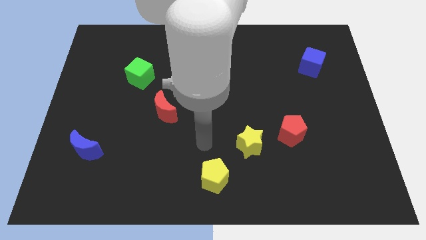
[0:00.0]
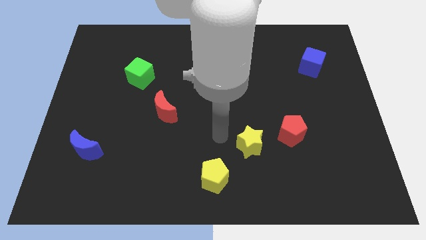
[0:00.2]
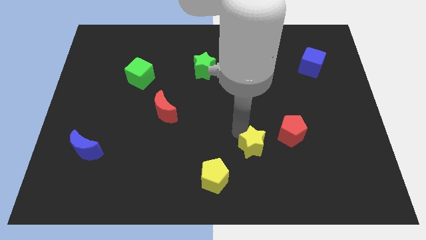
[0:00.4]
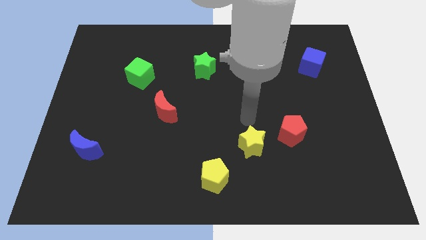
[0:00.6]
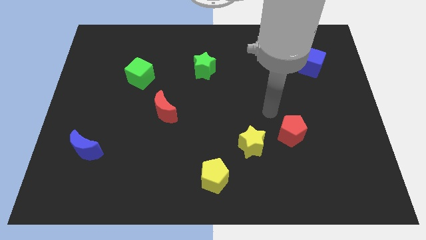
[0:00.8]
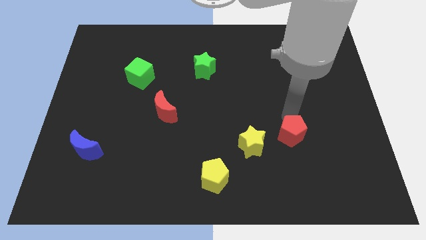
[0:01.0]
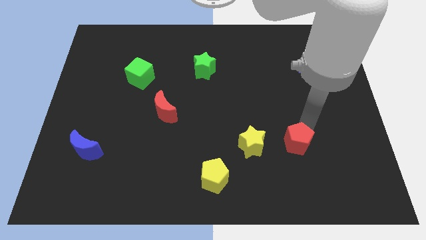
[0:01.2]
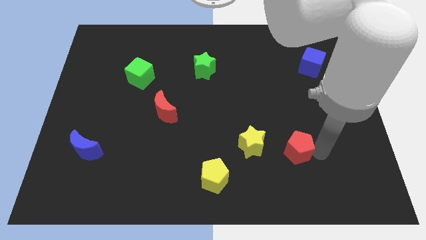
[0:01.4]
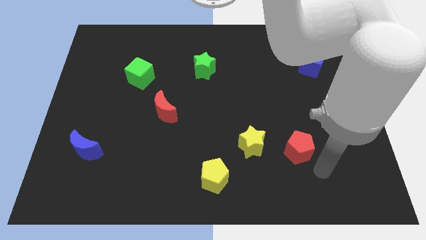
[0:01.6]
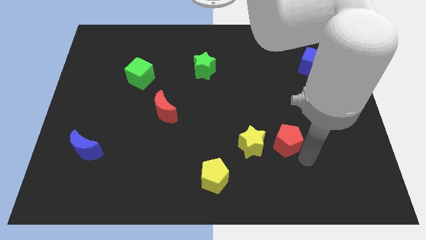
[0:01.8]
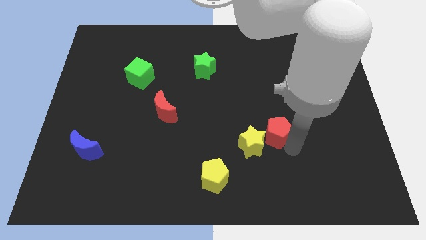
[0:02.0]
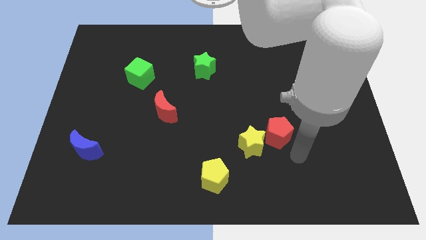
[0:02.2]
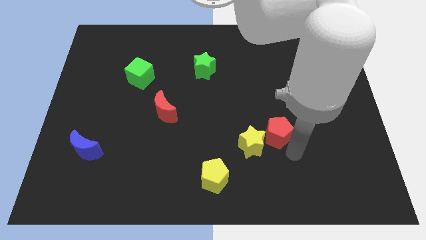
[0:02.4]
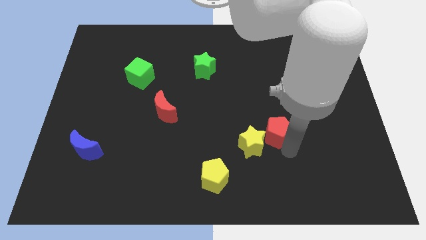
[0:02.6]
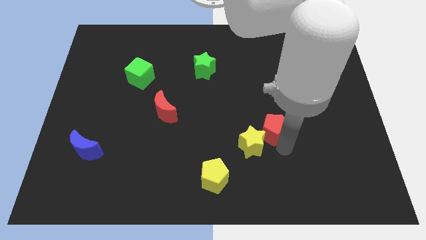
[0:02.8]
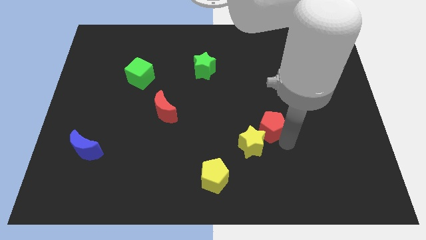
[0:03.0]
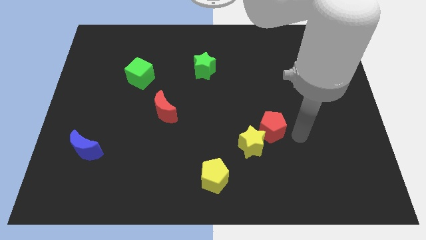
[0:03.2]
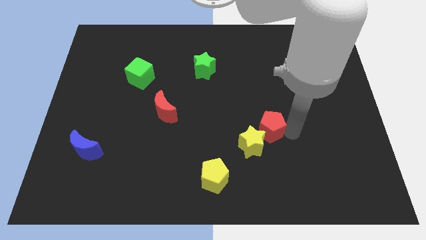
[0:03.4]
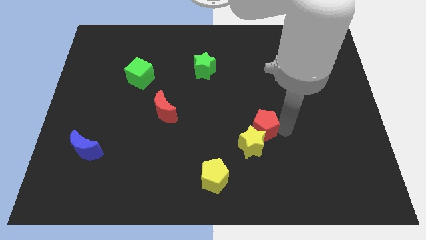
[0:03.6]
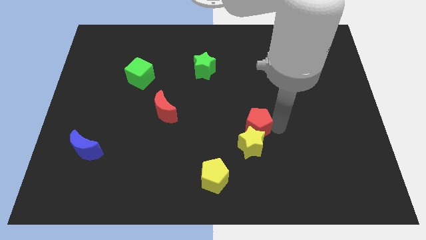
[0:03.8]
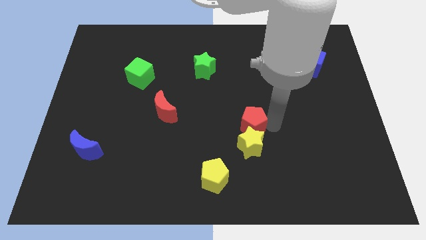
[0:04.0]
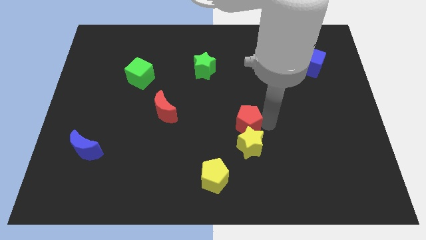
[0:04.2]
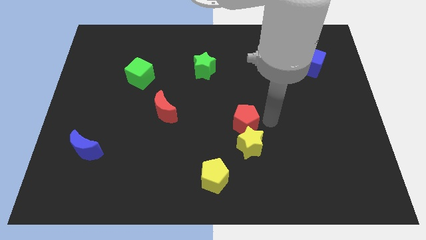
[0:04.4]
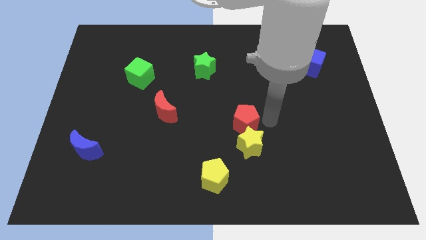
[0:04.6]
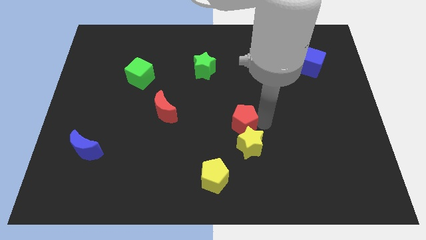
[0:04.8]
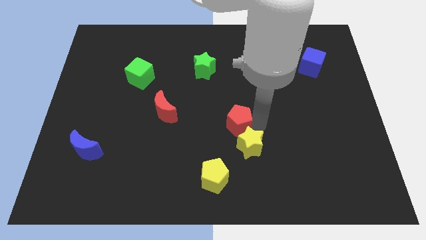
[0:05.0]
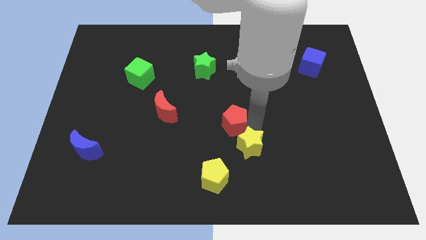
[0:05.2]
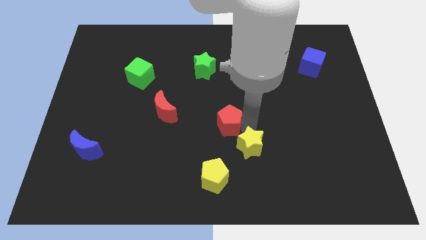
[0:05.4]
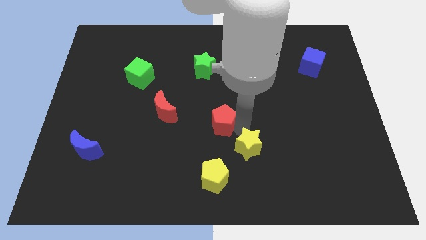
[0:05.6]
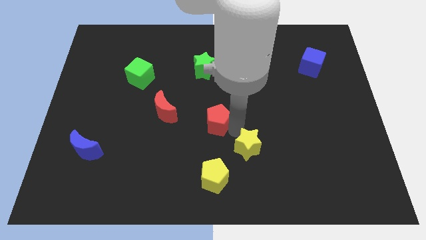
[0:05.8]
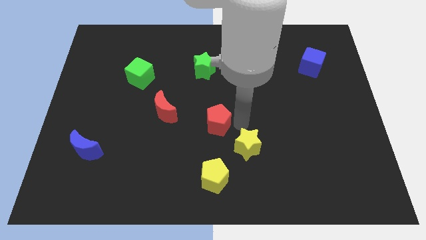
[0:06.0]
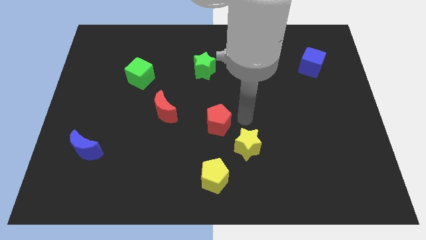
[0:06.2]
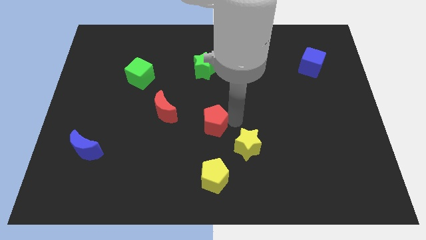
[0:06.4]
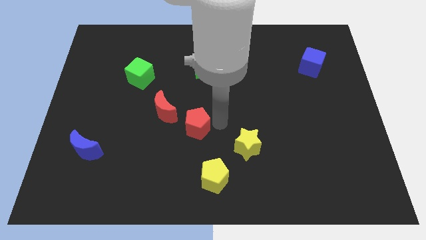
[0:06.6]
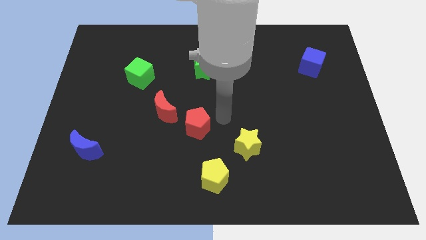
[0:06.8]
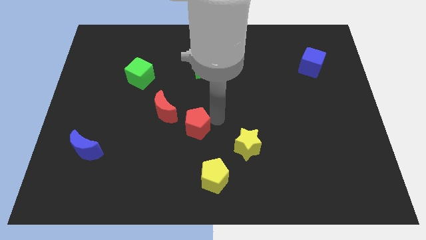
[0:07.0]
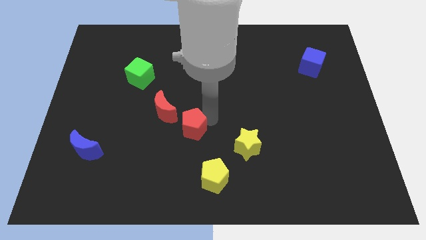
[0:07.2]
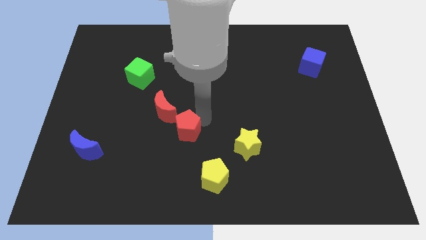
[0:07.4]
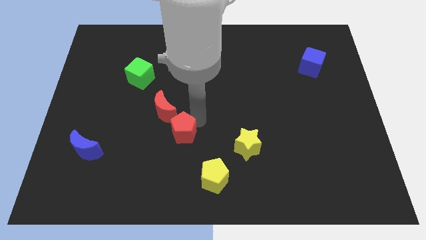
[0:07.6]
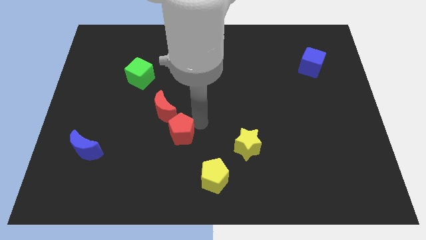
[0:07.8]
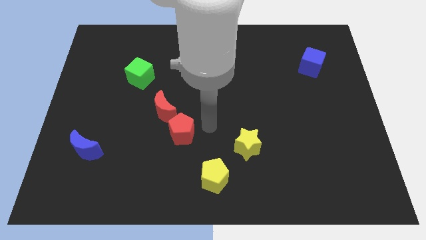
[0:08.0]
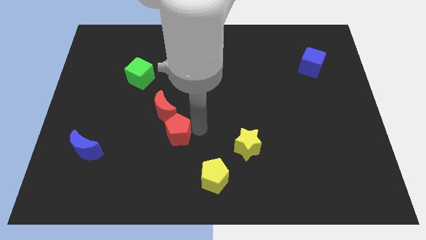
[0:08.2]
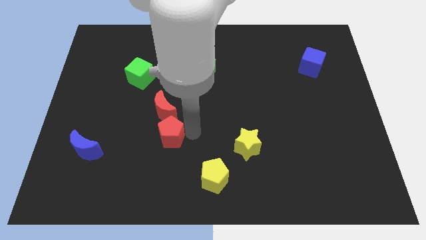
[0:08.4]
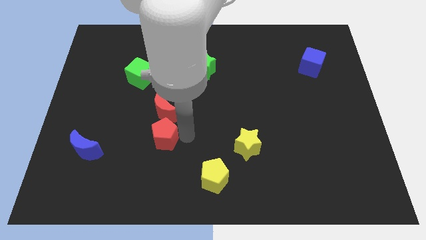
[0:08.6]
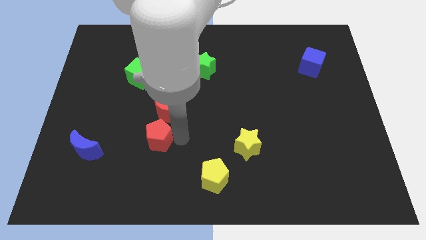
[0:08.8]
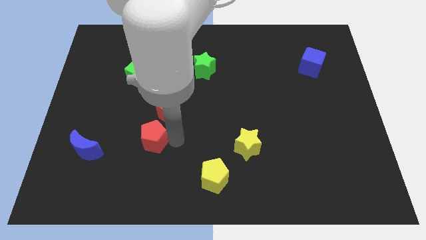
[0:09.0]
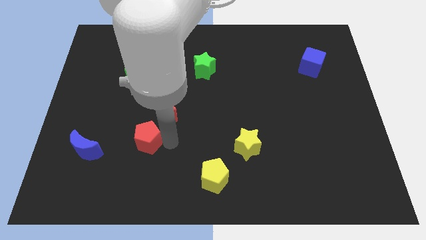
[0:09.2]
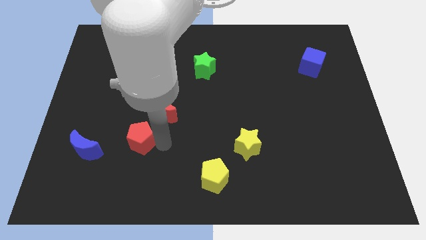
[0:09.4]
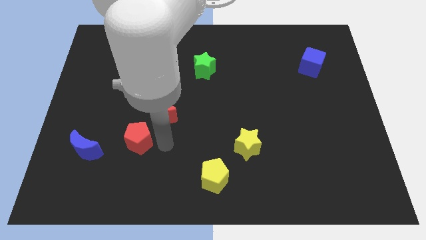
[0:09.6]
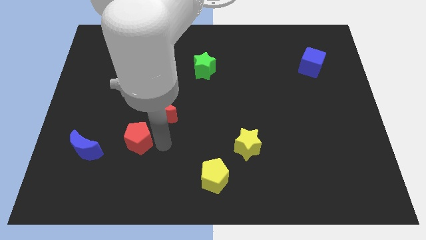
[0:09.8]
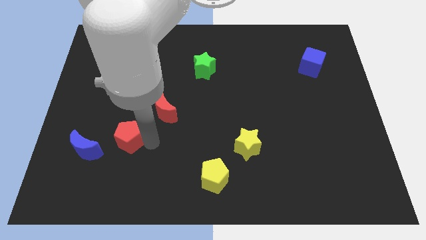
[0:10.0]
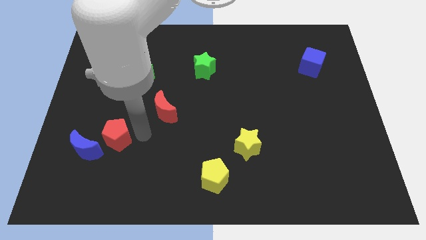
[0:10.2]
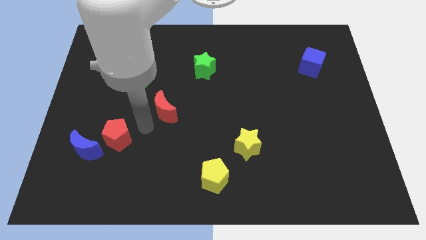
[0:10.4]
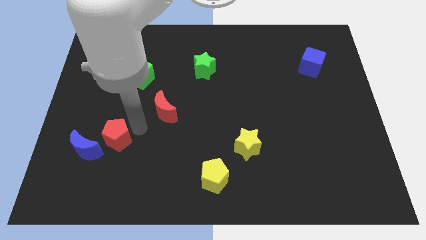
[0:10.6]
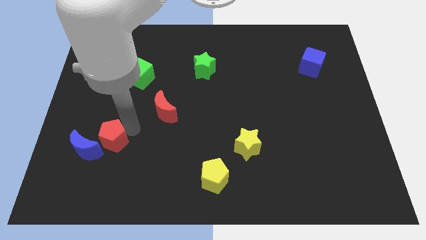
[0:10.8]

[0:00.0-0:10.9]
slide the red pentagon towards the blue moon

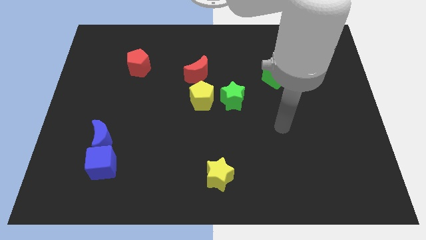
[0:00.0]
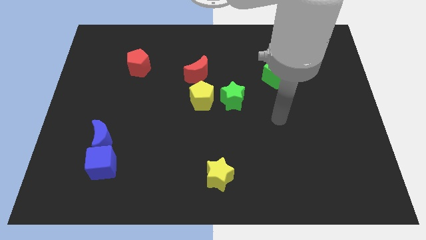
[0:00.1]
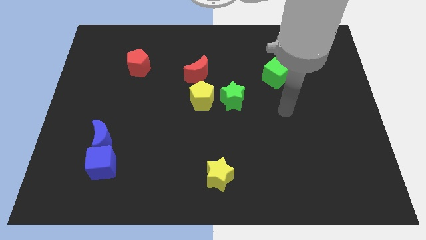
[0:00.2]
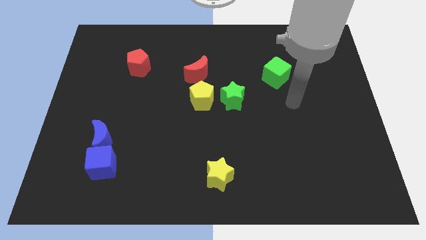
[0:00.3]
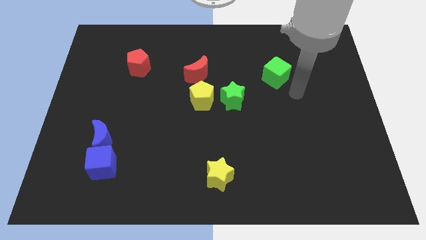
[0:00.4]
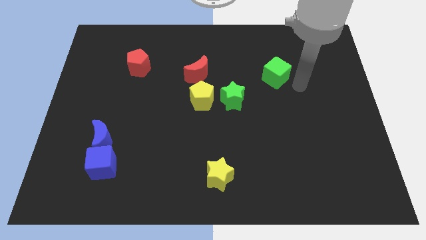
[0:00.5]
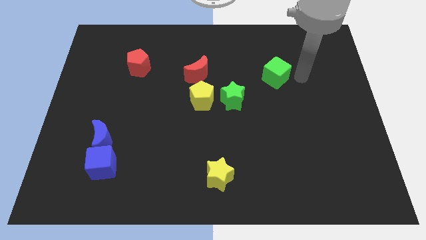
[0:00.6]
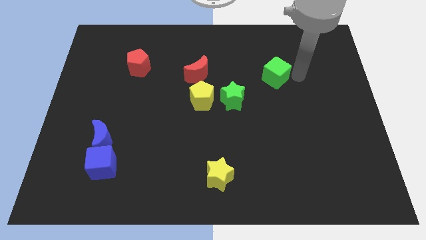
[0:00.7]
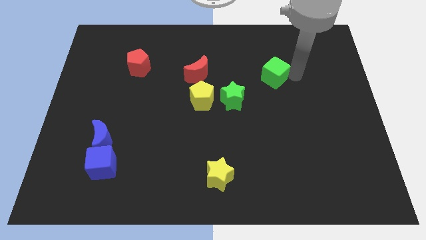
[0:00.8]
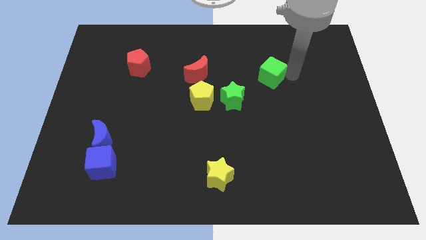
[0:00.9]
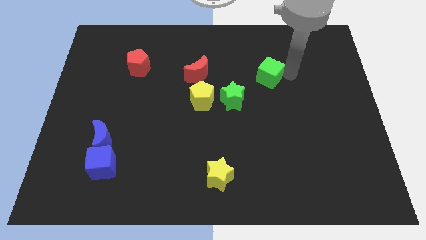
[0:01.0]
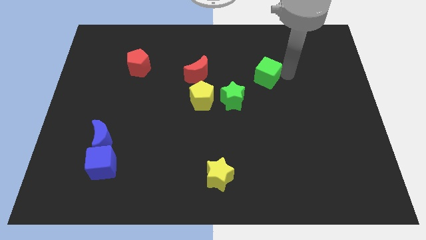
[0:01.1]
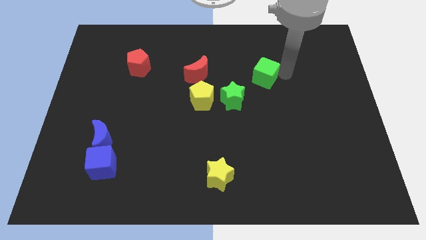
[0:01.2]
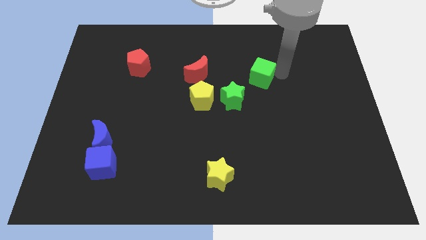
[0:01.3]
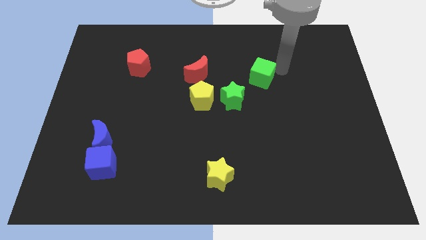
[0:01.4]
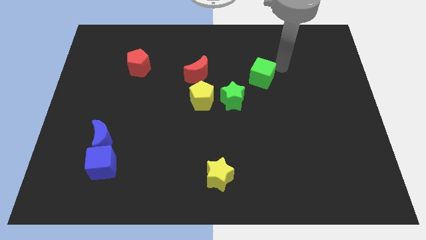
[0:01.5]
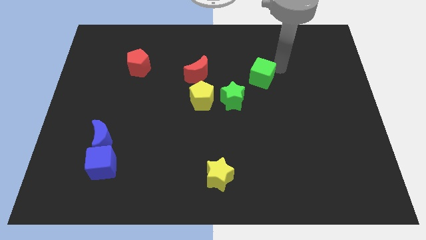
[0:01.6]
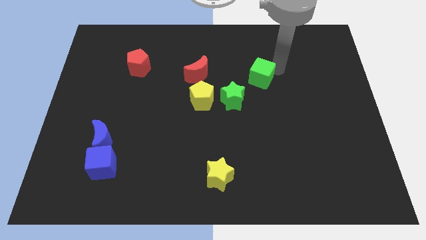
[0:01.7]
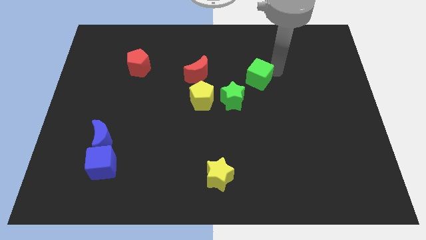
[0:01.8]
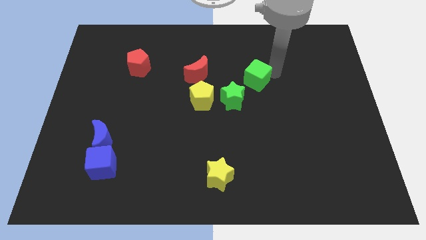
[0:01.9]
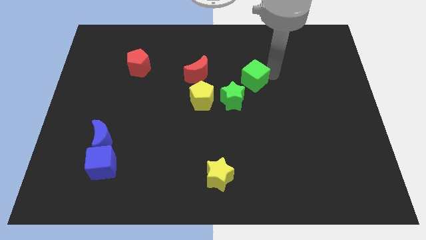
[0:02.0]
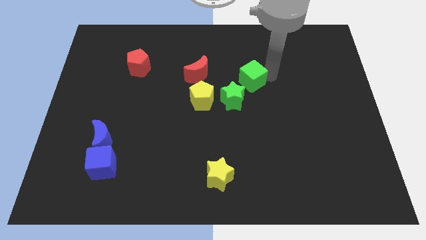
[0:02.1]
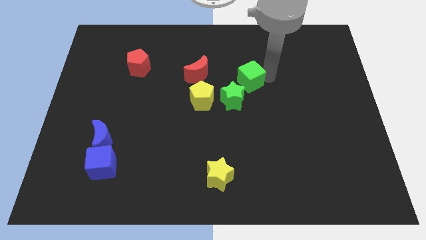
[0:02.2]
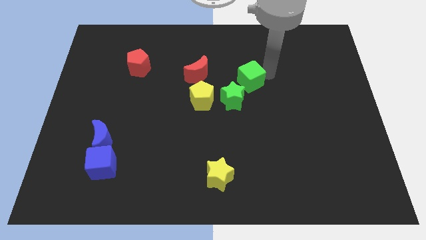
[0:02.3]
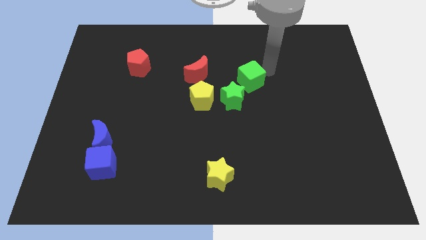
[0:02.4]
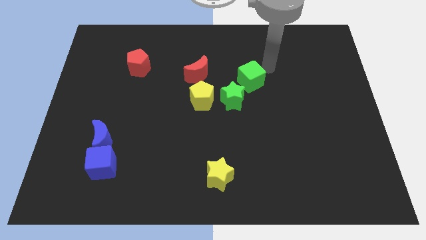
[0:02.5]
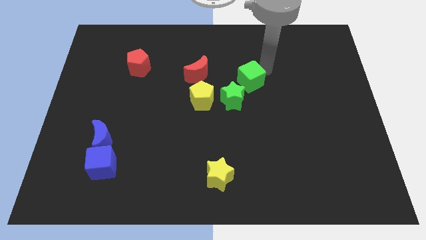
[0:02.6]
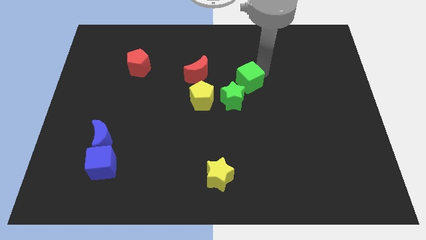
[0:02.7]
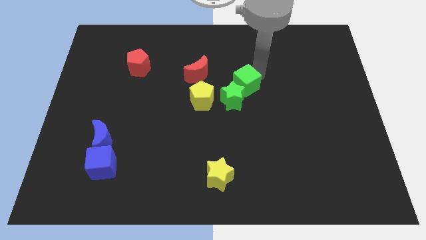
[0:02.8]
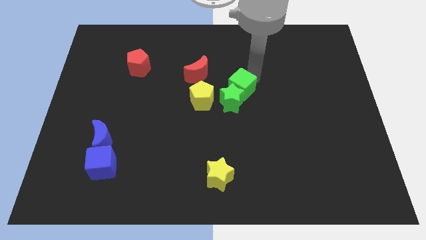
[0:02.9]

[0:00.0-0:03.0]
slide the green cube to the green star
